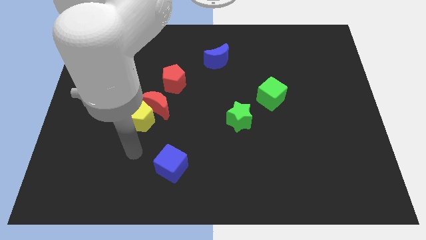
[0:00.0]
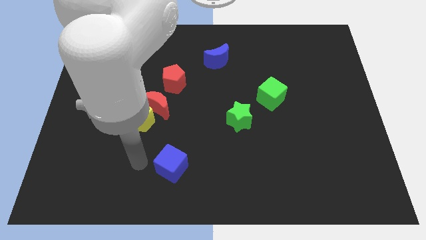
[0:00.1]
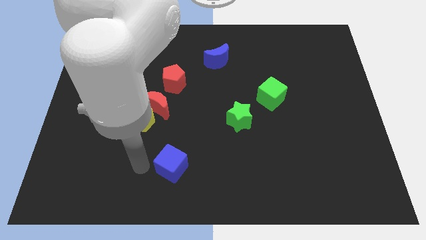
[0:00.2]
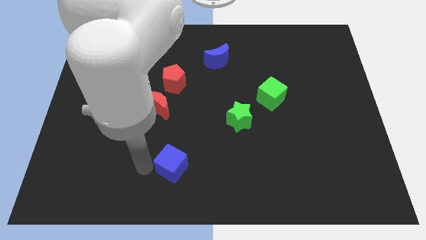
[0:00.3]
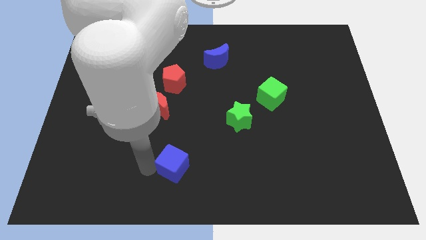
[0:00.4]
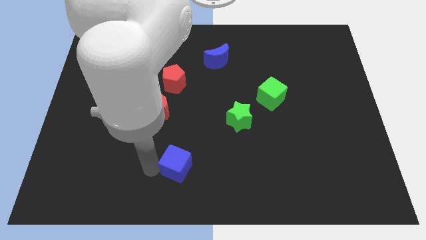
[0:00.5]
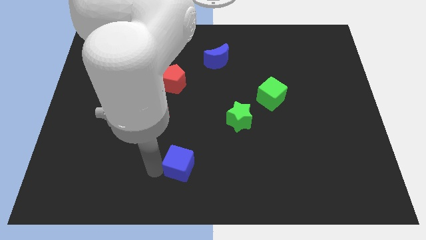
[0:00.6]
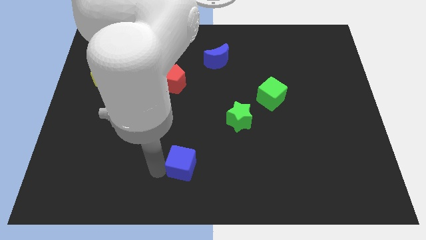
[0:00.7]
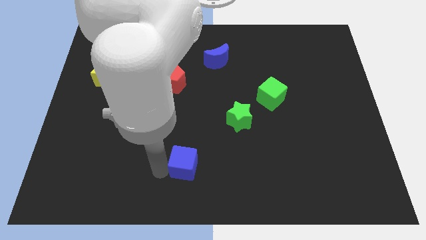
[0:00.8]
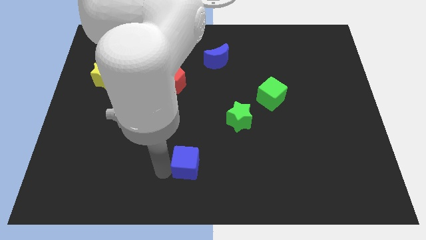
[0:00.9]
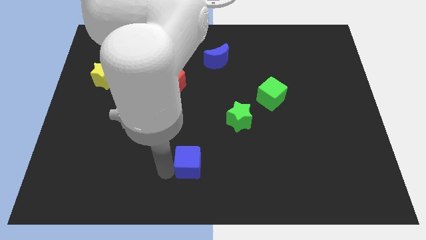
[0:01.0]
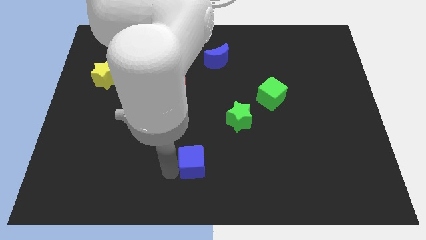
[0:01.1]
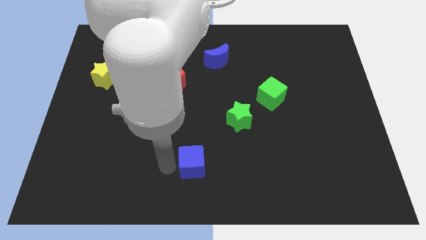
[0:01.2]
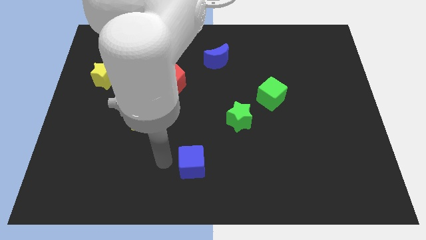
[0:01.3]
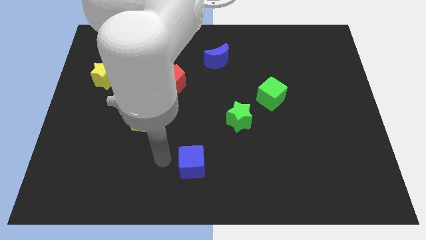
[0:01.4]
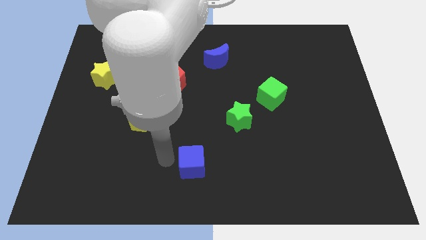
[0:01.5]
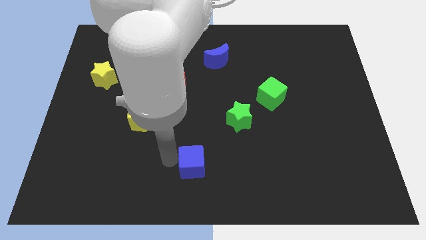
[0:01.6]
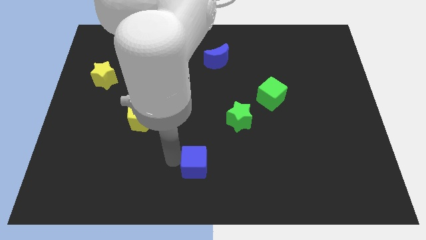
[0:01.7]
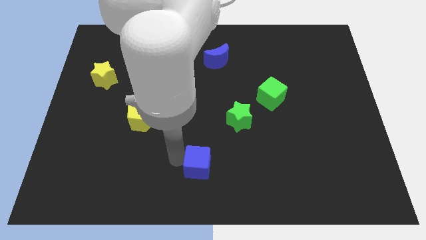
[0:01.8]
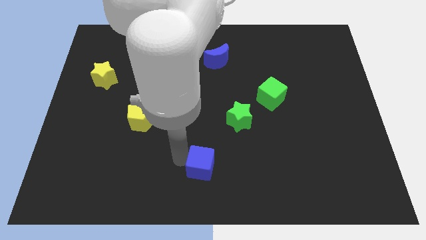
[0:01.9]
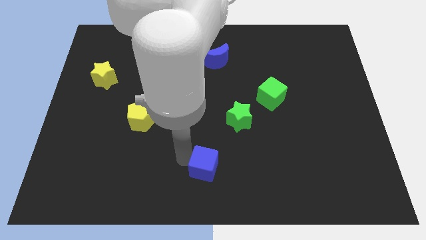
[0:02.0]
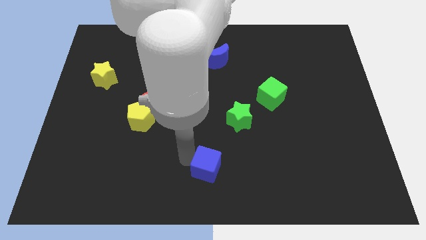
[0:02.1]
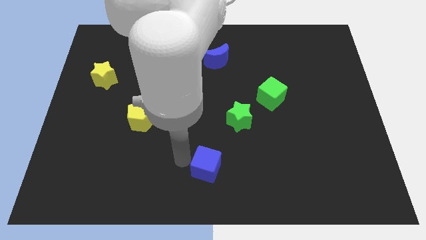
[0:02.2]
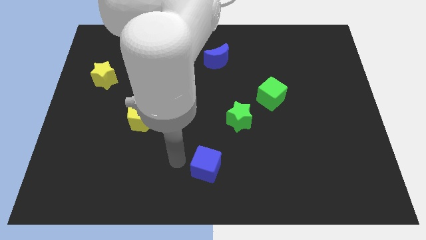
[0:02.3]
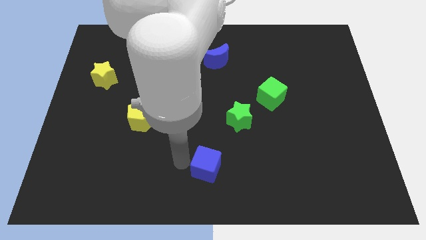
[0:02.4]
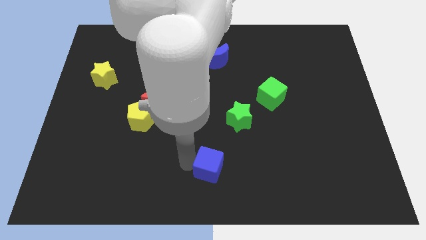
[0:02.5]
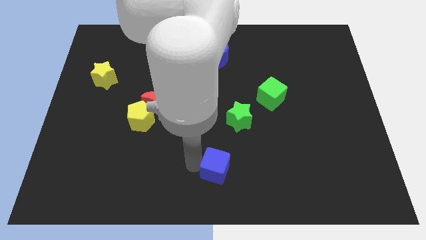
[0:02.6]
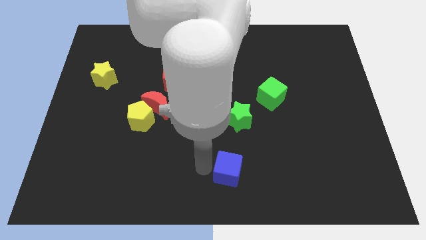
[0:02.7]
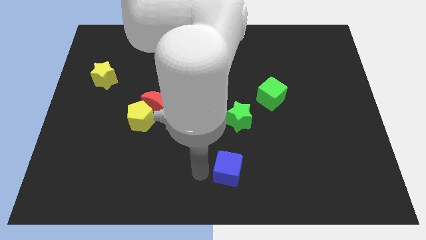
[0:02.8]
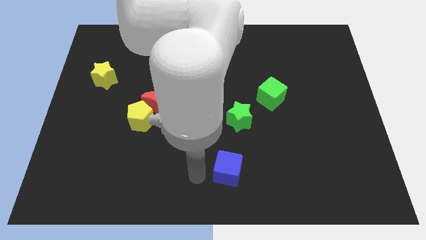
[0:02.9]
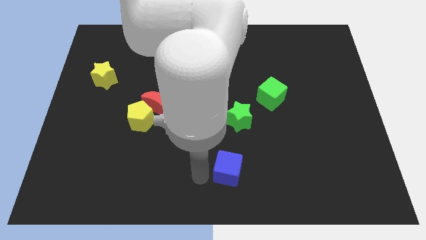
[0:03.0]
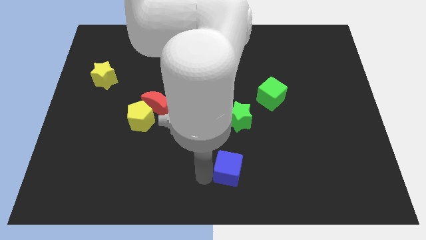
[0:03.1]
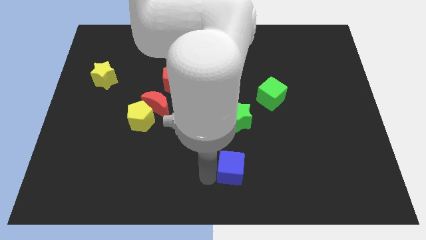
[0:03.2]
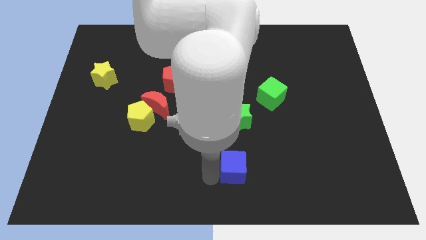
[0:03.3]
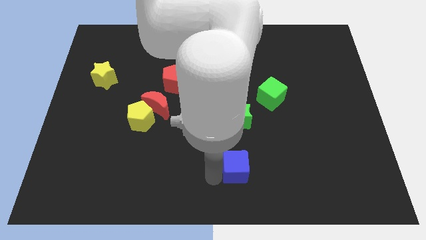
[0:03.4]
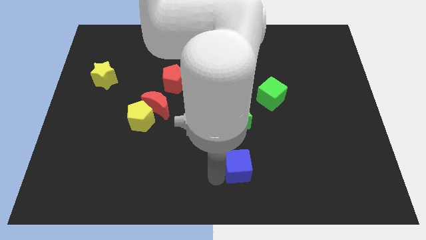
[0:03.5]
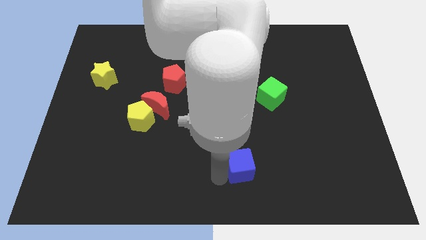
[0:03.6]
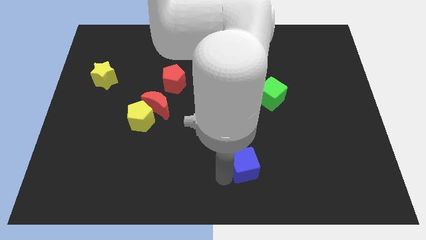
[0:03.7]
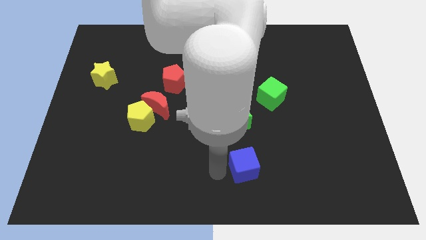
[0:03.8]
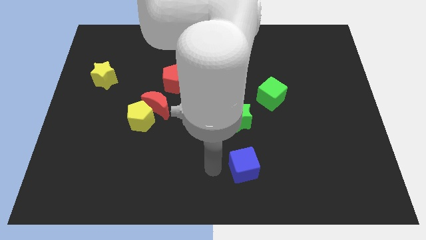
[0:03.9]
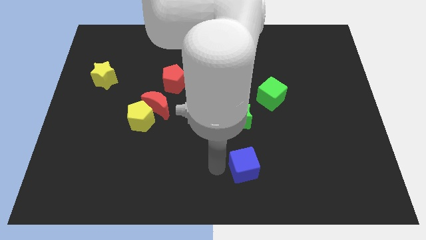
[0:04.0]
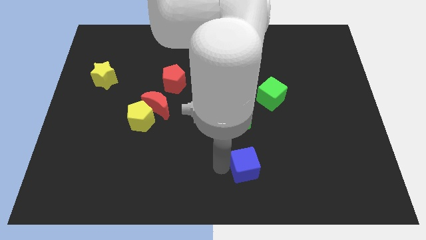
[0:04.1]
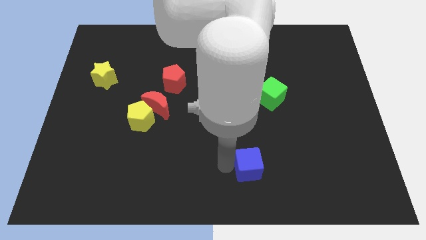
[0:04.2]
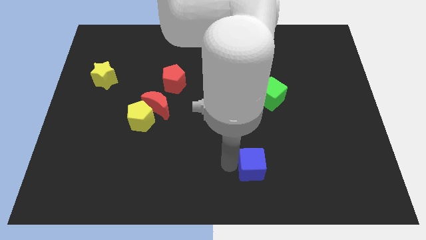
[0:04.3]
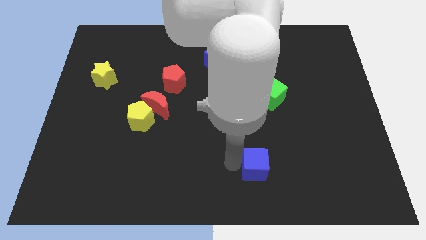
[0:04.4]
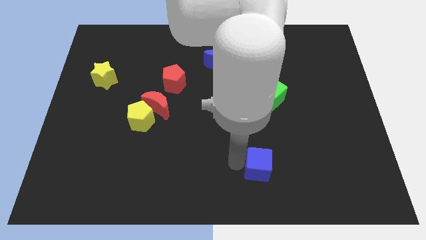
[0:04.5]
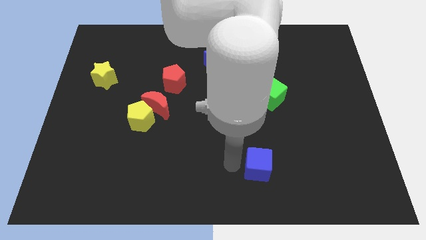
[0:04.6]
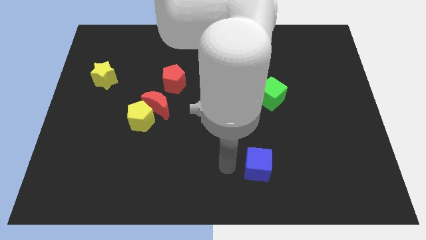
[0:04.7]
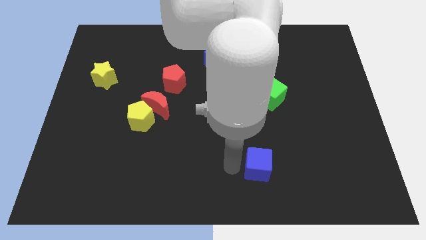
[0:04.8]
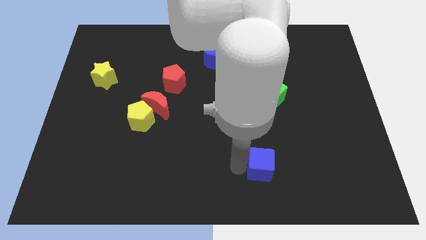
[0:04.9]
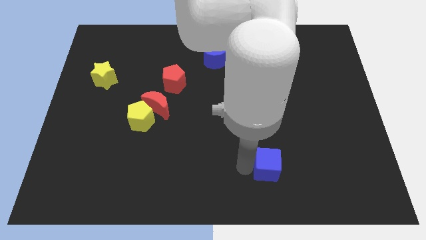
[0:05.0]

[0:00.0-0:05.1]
push the blue cube to the right

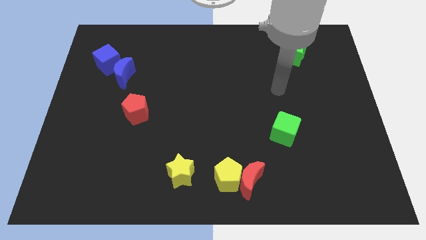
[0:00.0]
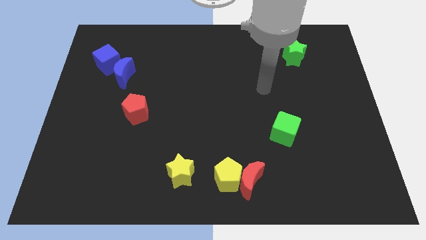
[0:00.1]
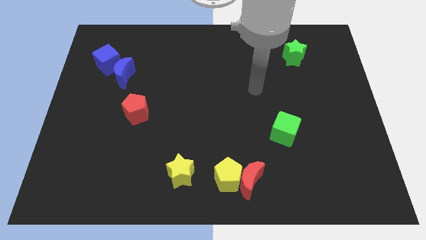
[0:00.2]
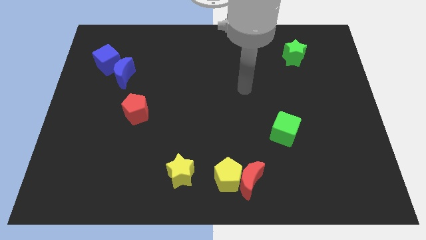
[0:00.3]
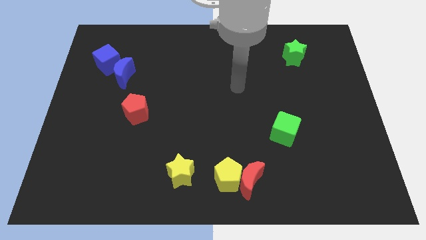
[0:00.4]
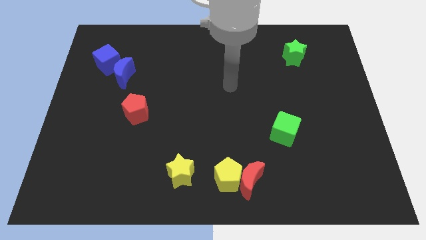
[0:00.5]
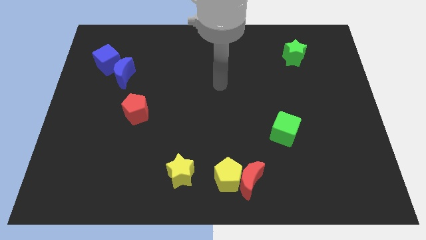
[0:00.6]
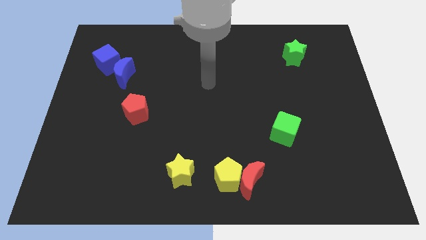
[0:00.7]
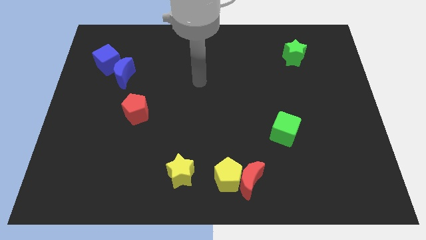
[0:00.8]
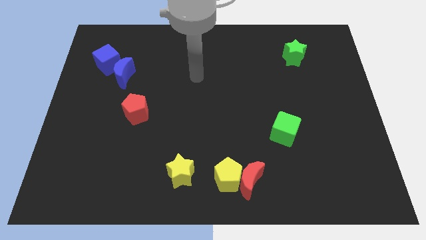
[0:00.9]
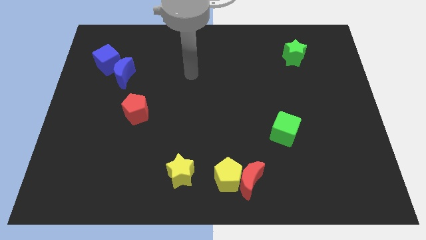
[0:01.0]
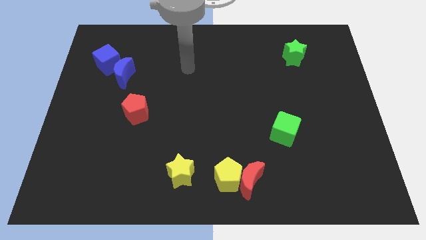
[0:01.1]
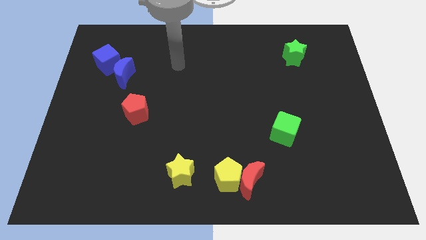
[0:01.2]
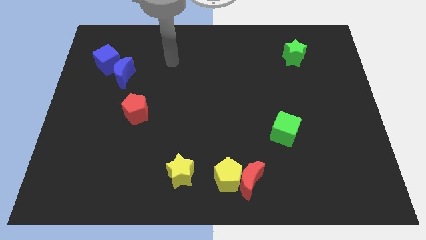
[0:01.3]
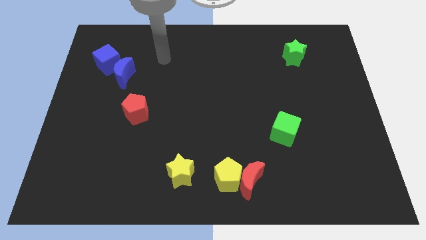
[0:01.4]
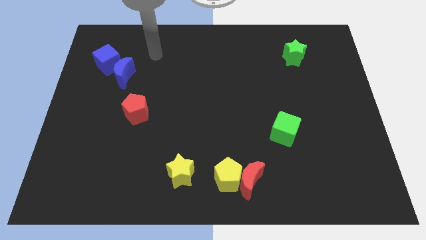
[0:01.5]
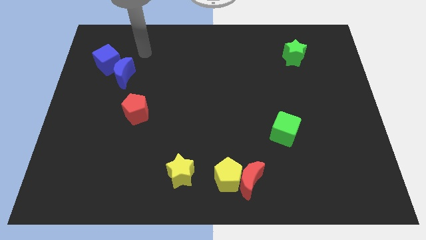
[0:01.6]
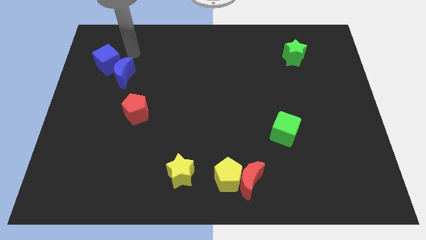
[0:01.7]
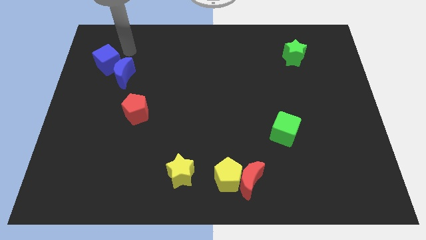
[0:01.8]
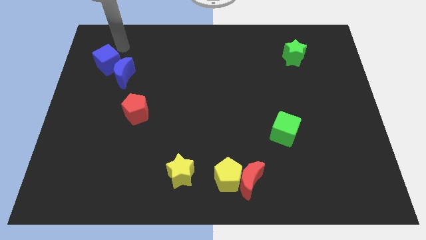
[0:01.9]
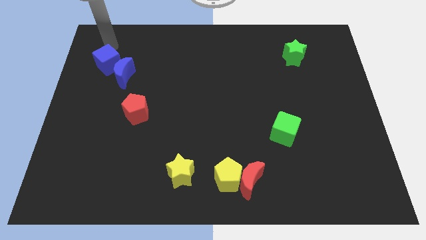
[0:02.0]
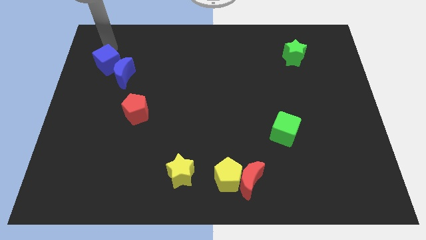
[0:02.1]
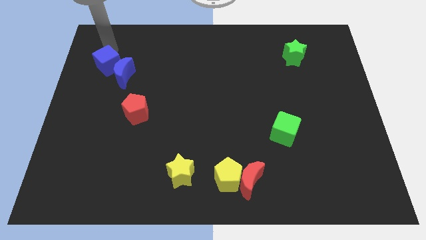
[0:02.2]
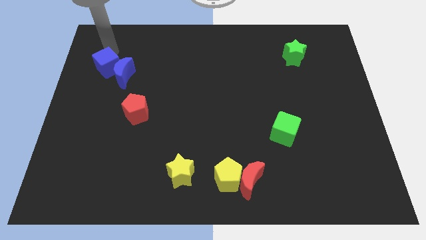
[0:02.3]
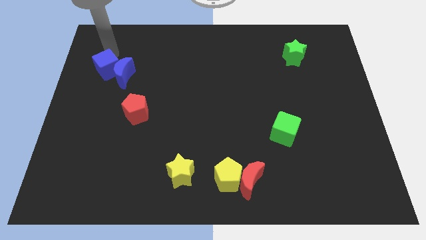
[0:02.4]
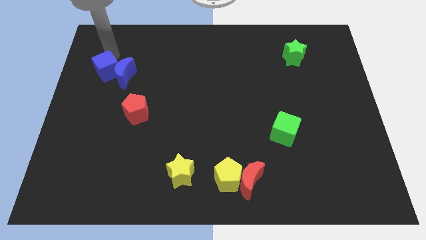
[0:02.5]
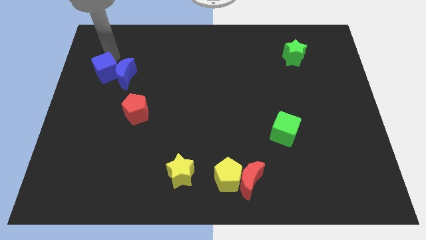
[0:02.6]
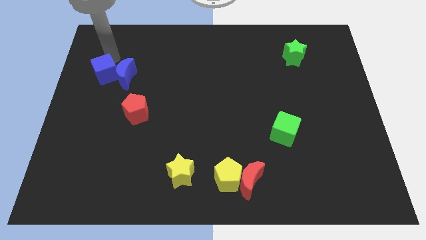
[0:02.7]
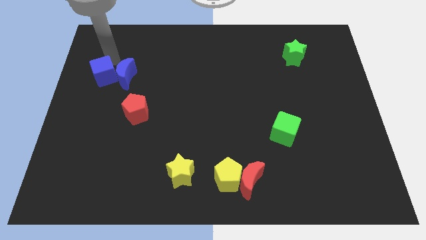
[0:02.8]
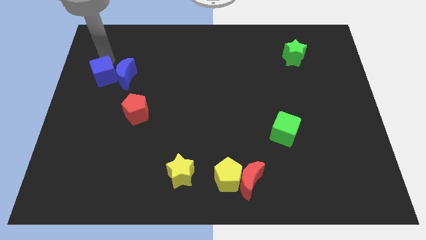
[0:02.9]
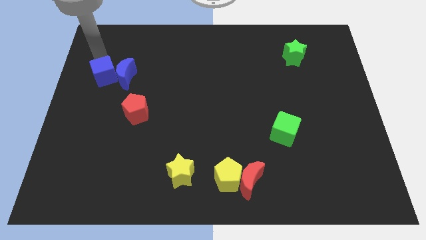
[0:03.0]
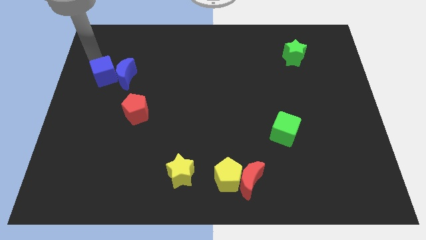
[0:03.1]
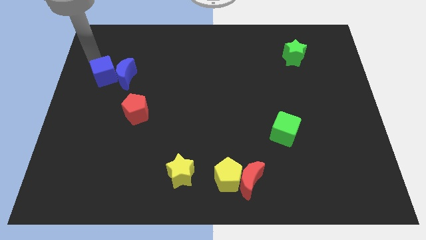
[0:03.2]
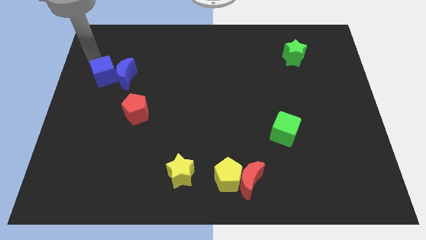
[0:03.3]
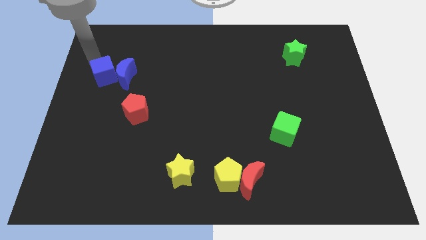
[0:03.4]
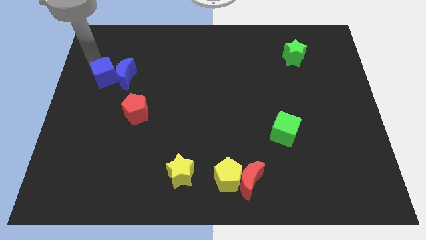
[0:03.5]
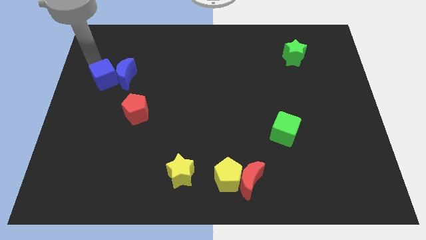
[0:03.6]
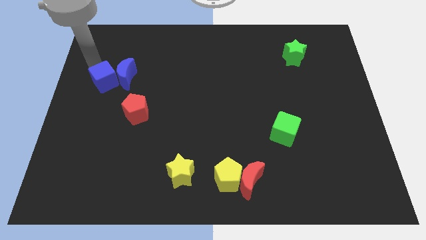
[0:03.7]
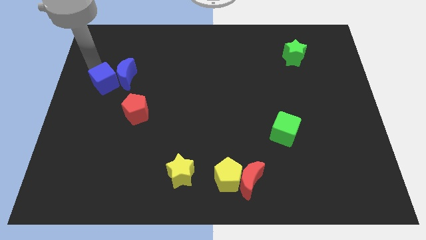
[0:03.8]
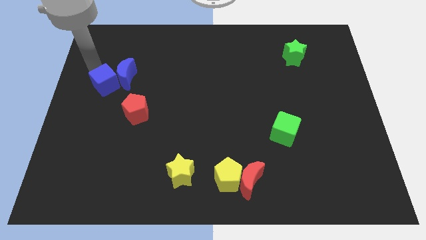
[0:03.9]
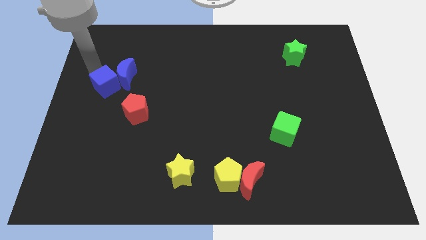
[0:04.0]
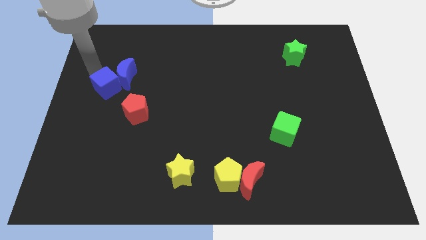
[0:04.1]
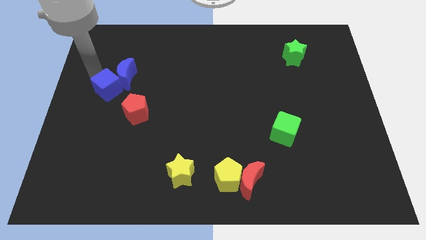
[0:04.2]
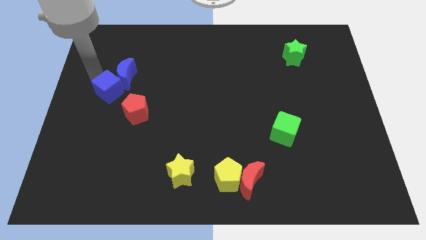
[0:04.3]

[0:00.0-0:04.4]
slightly push the blue cube diagonally down and to the right
